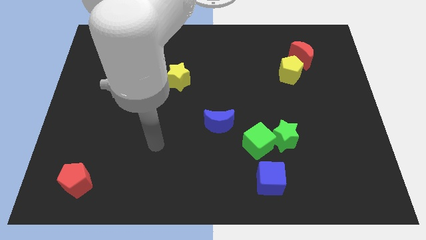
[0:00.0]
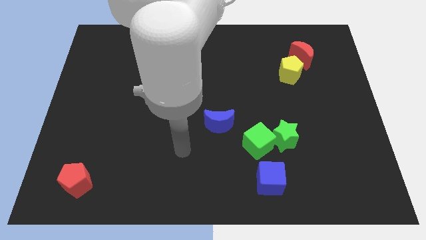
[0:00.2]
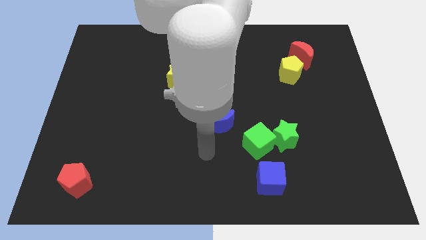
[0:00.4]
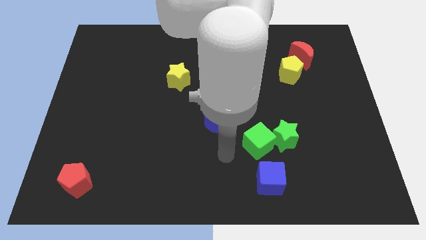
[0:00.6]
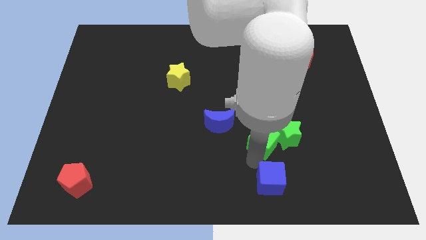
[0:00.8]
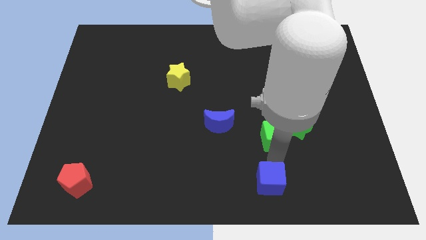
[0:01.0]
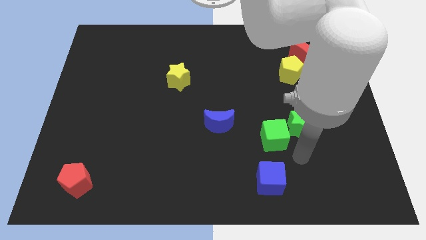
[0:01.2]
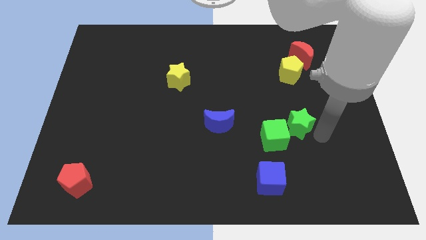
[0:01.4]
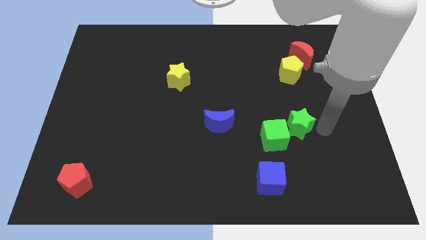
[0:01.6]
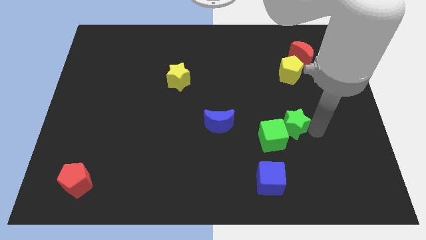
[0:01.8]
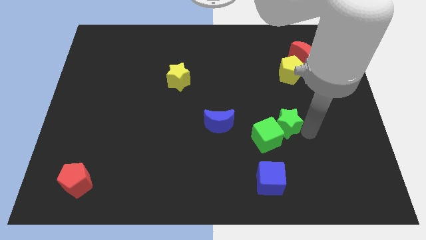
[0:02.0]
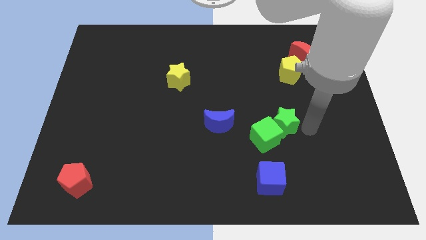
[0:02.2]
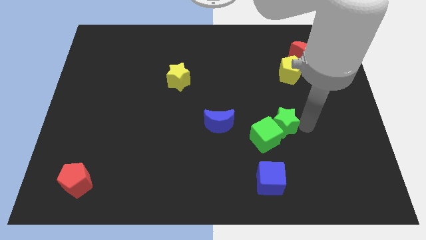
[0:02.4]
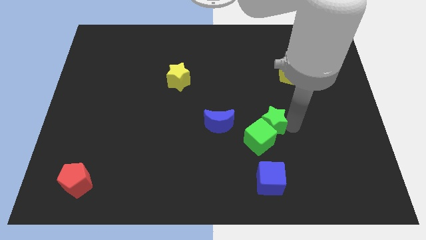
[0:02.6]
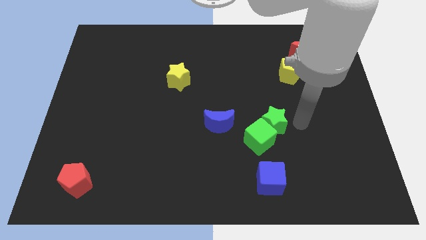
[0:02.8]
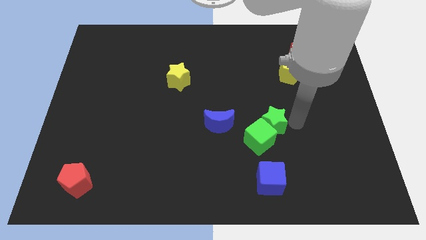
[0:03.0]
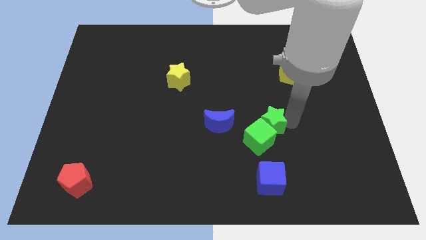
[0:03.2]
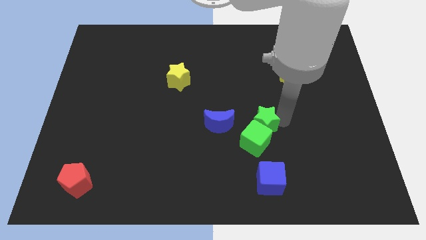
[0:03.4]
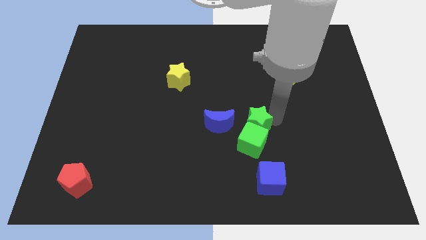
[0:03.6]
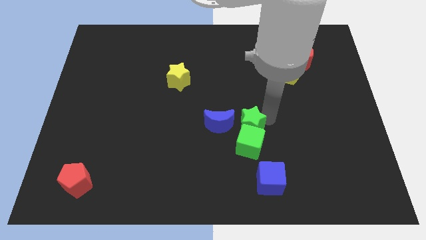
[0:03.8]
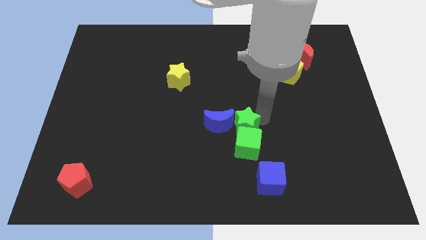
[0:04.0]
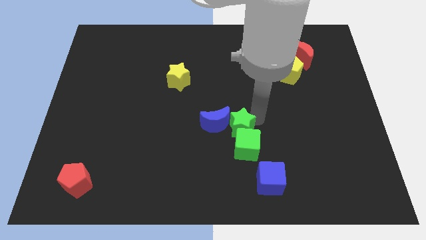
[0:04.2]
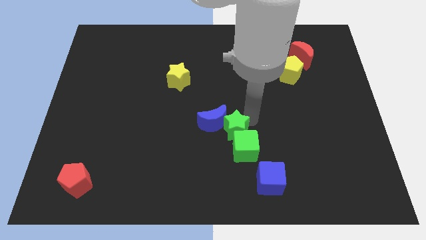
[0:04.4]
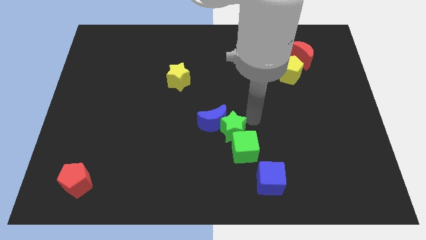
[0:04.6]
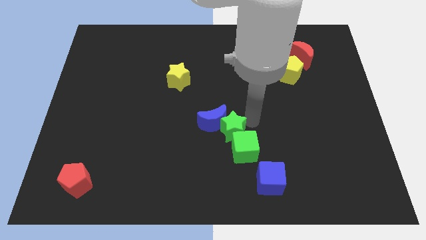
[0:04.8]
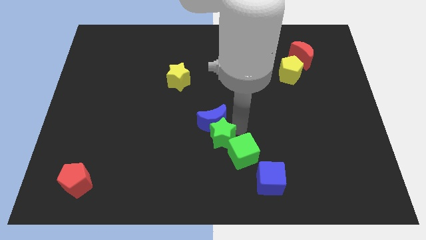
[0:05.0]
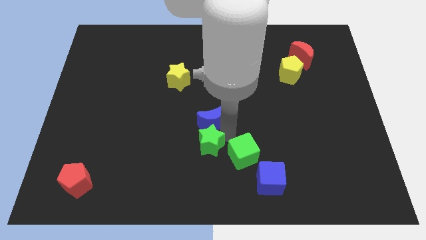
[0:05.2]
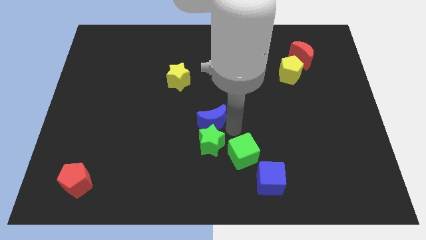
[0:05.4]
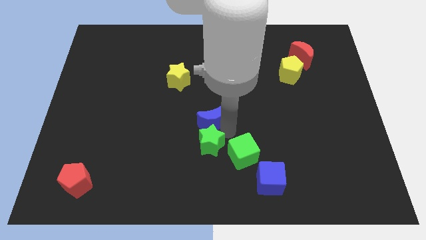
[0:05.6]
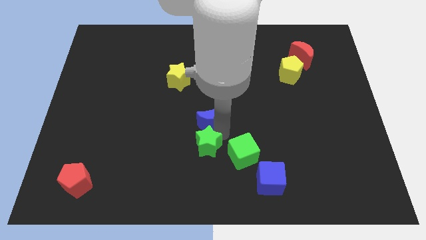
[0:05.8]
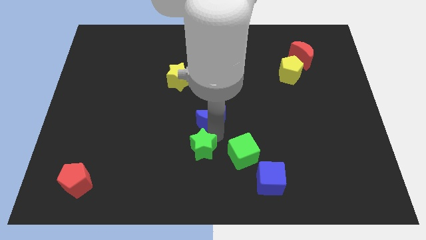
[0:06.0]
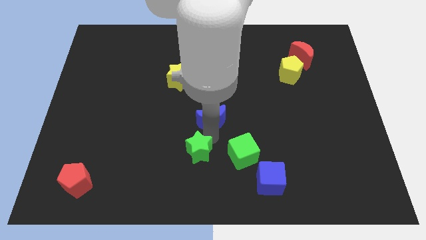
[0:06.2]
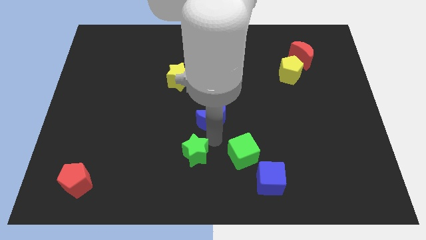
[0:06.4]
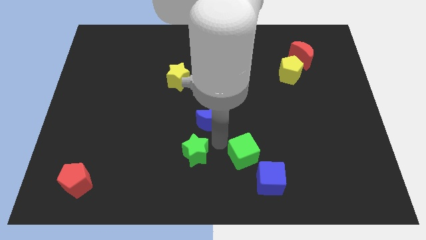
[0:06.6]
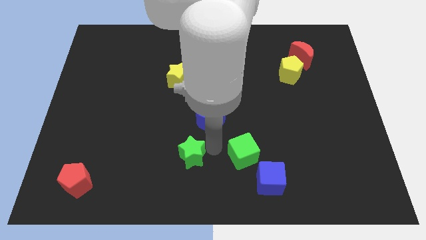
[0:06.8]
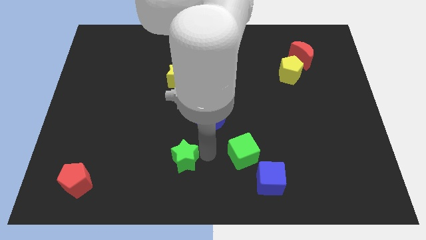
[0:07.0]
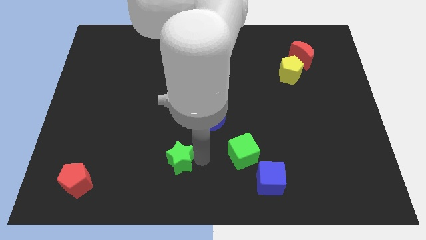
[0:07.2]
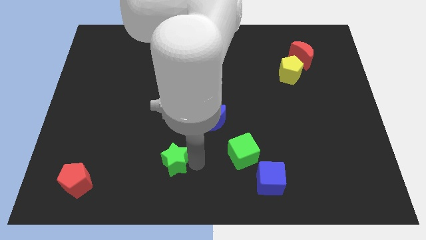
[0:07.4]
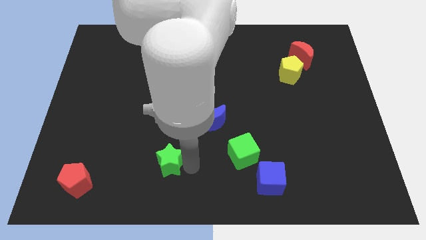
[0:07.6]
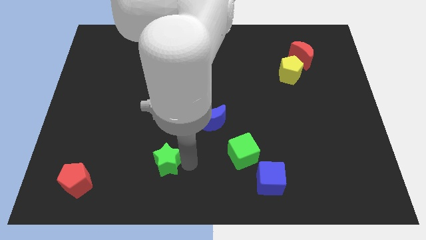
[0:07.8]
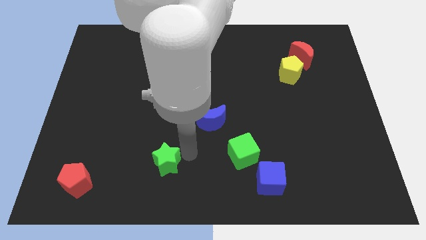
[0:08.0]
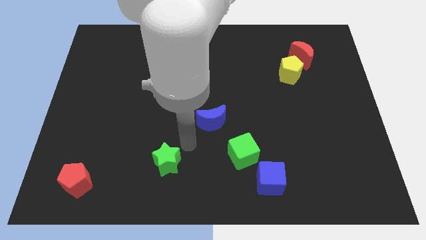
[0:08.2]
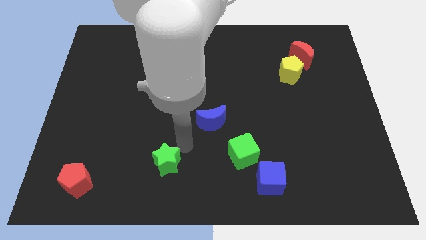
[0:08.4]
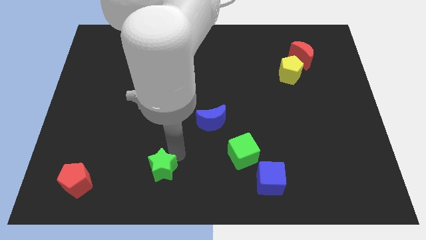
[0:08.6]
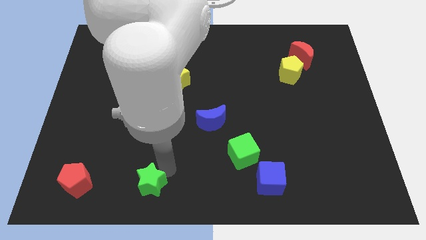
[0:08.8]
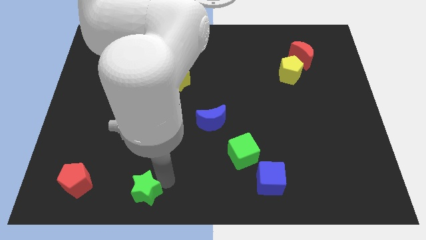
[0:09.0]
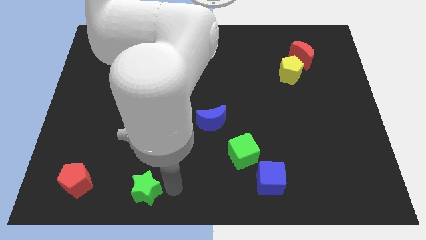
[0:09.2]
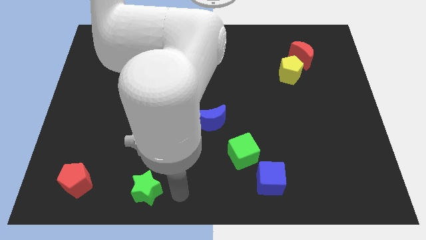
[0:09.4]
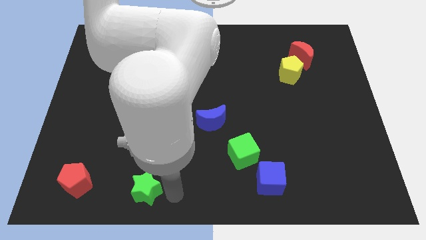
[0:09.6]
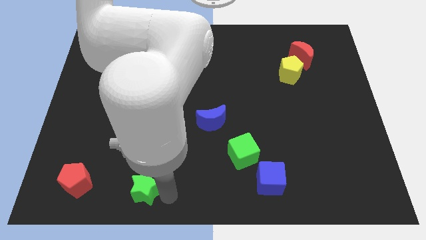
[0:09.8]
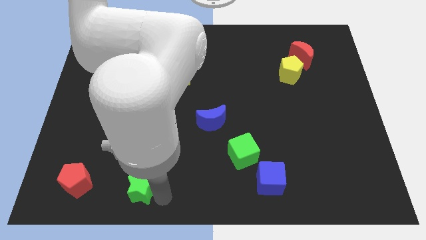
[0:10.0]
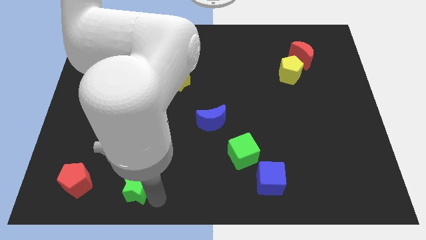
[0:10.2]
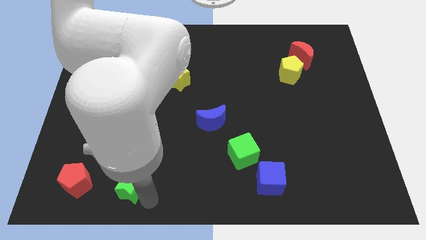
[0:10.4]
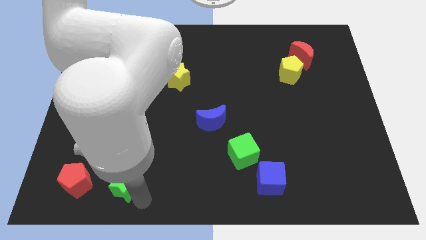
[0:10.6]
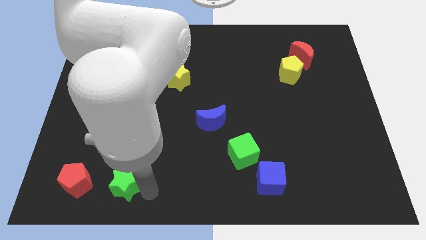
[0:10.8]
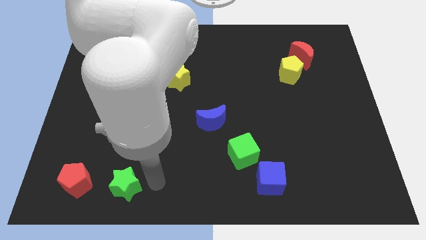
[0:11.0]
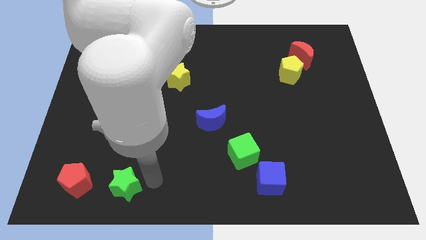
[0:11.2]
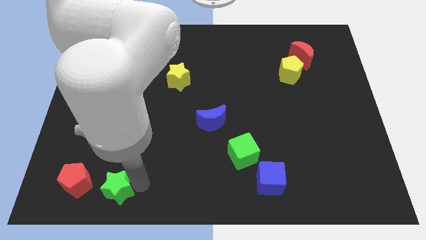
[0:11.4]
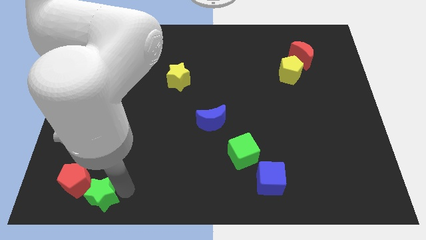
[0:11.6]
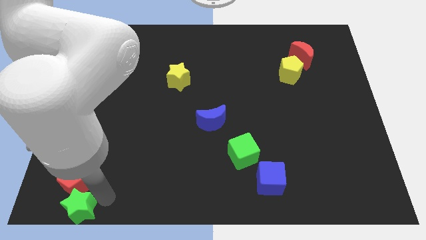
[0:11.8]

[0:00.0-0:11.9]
put the green star to the bottom left of the board
